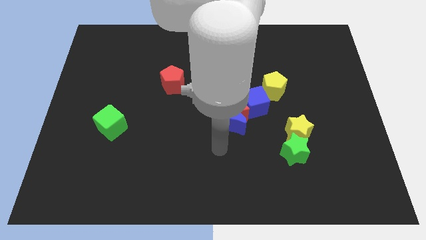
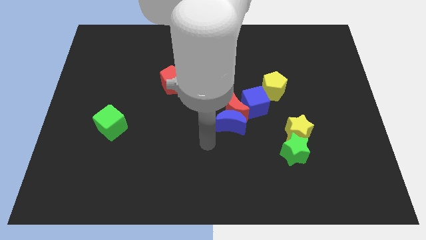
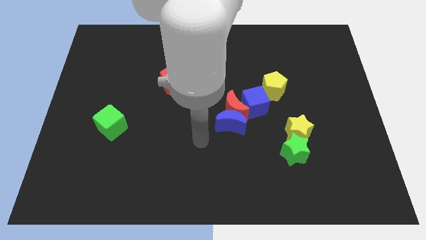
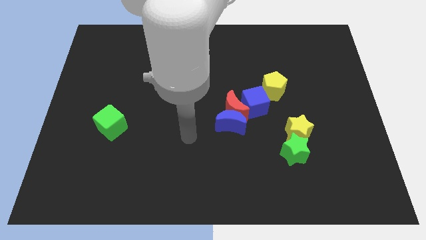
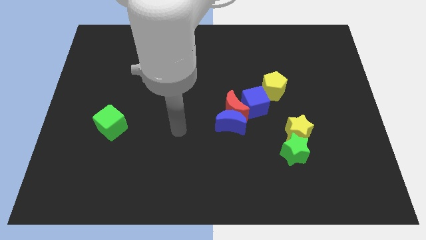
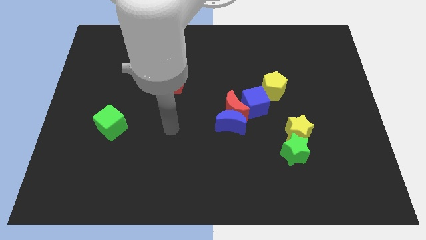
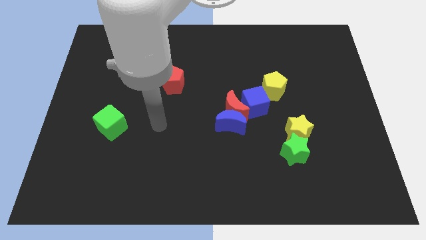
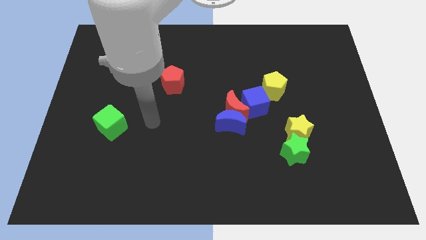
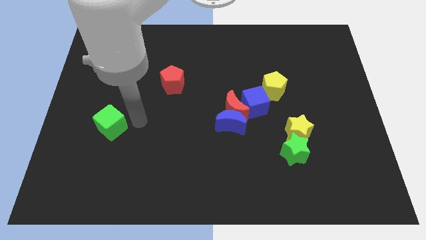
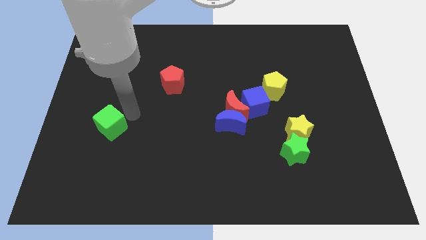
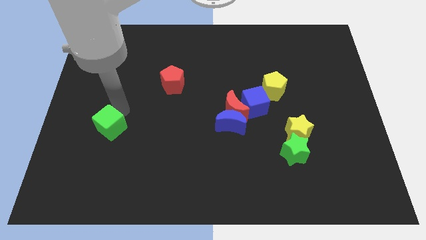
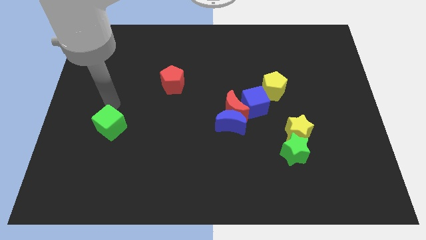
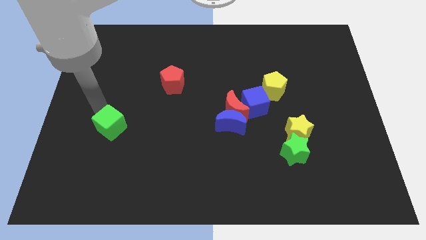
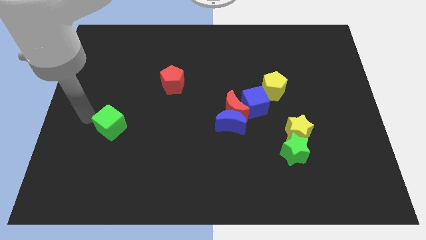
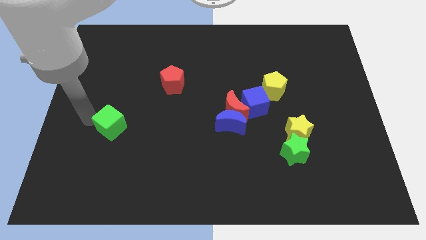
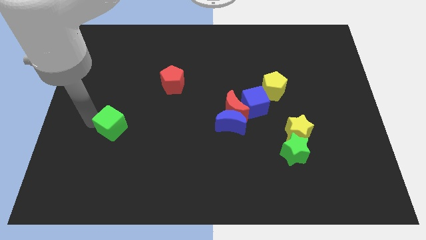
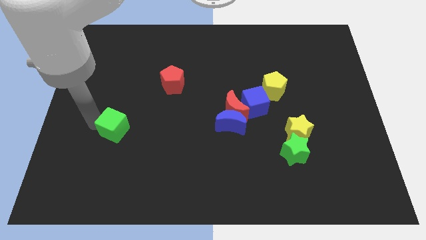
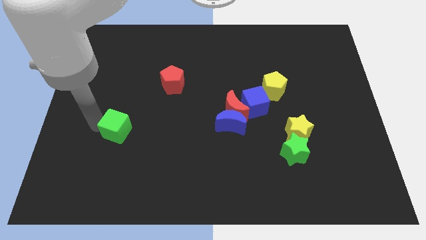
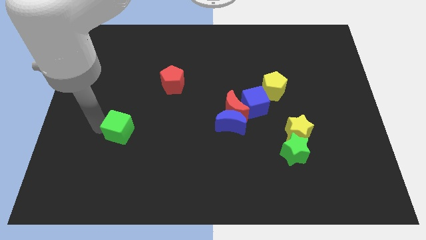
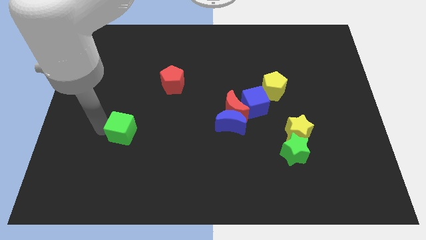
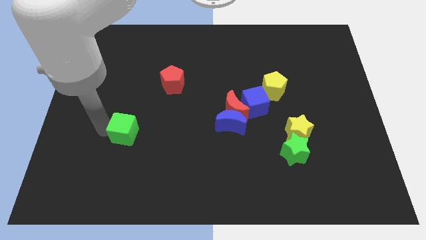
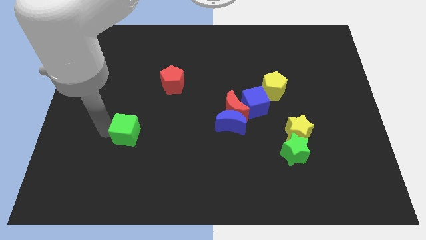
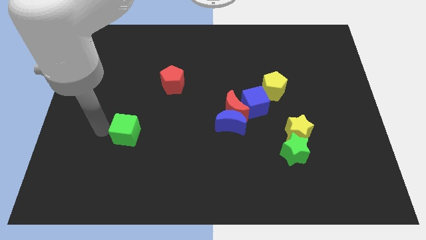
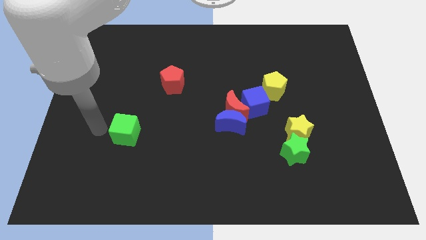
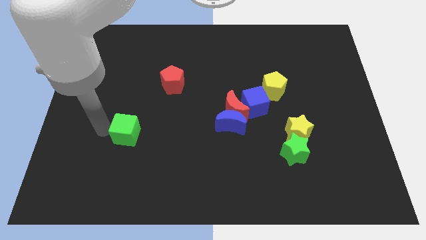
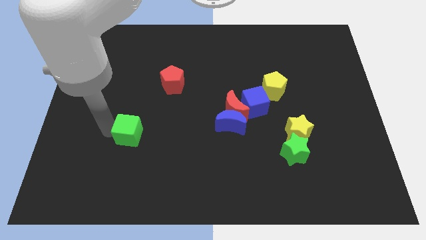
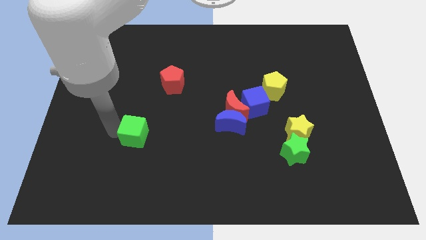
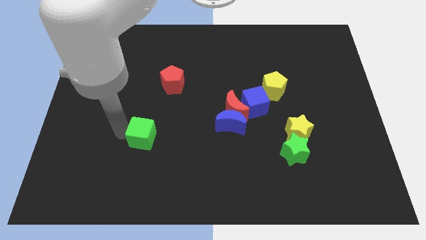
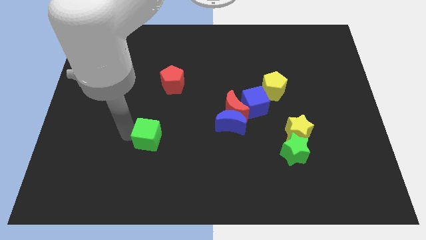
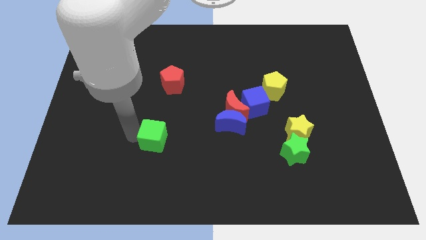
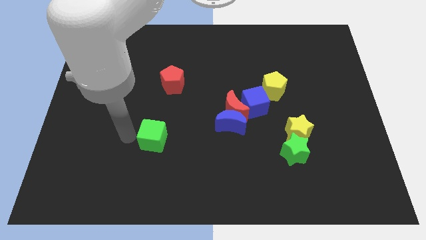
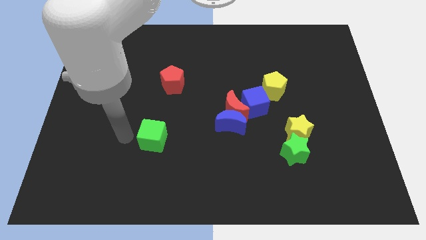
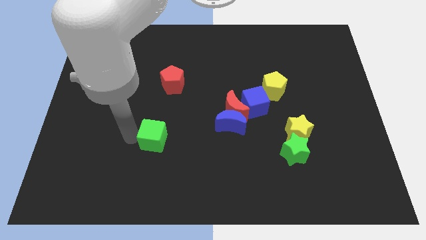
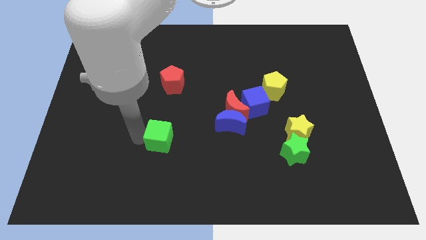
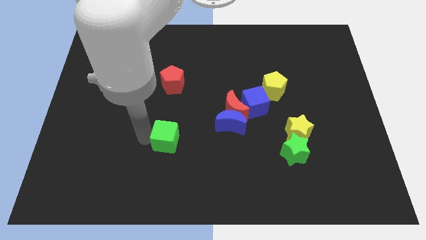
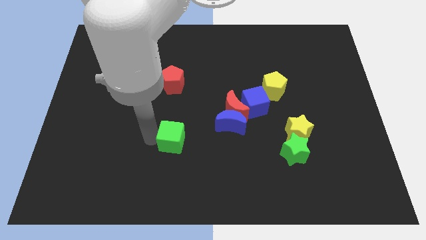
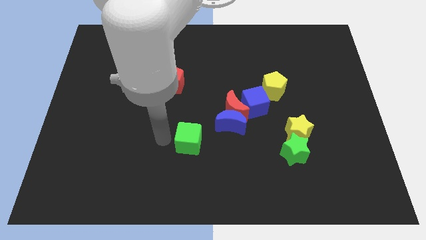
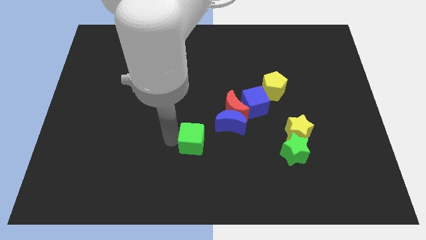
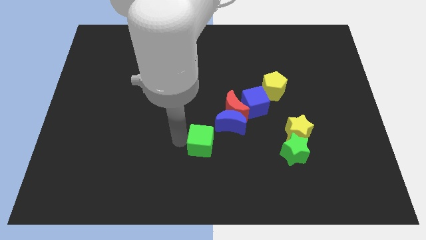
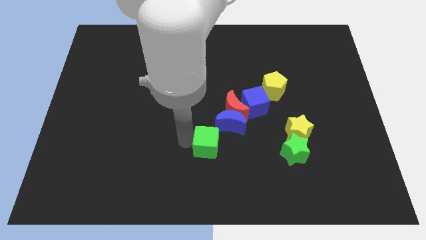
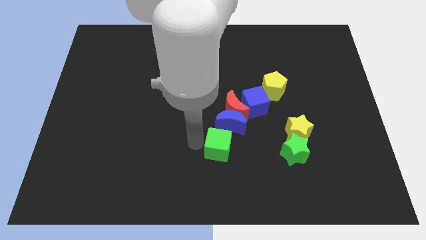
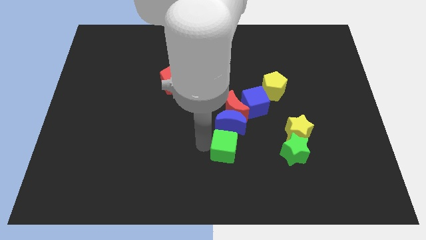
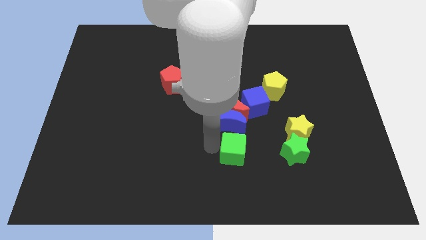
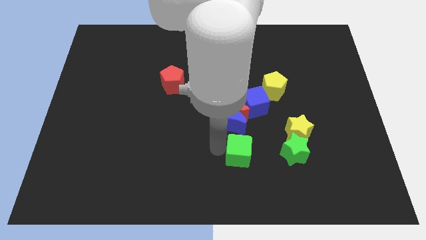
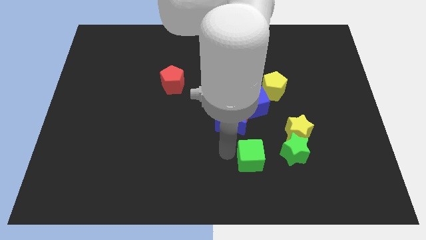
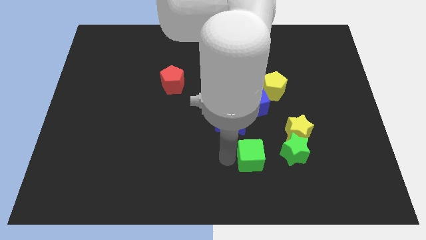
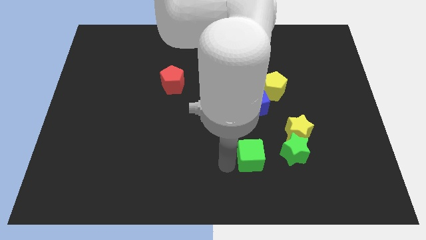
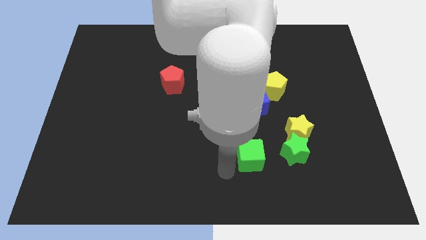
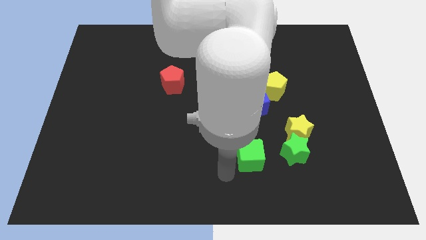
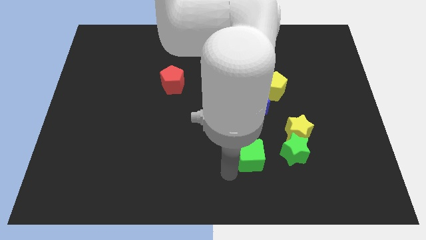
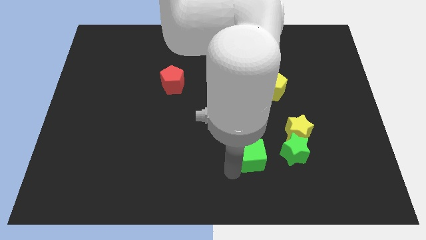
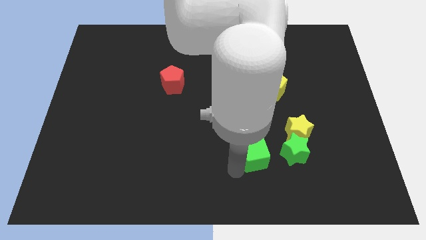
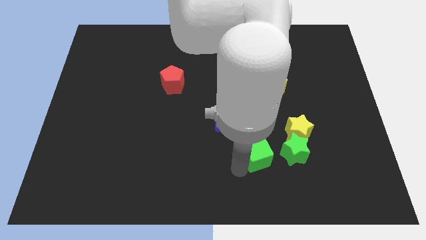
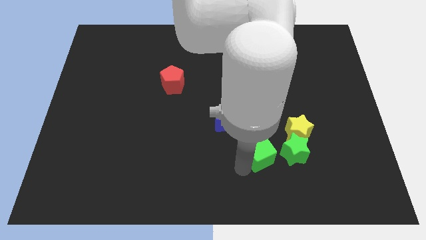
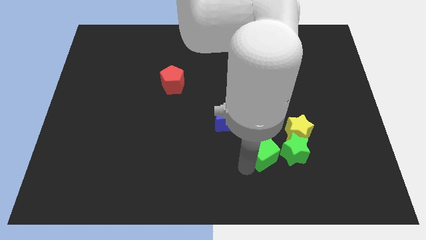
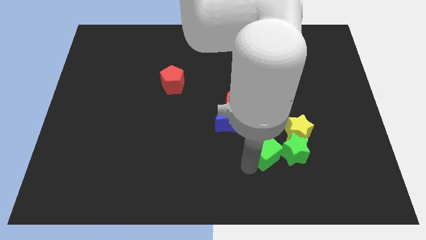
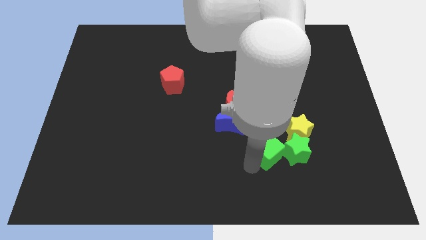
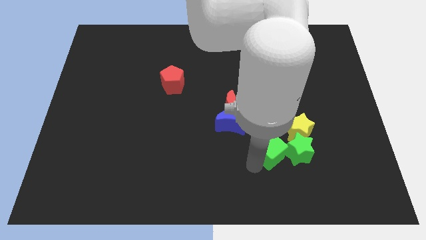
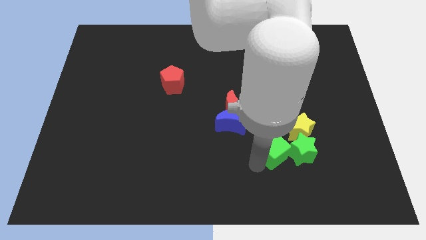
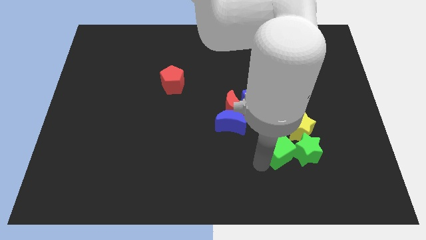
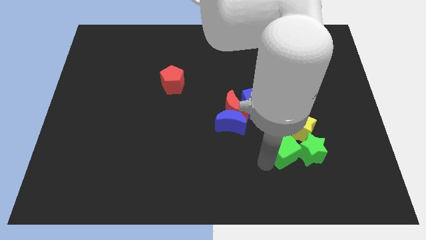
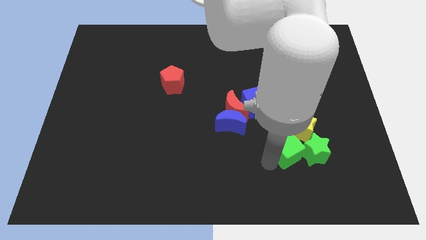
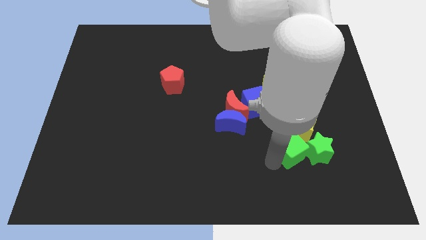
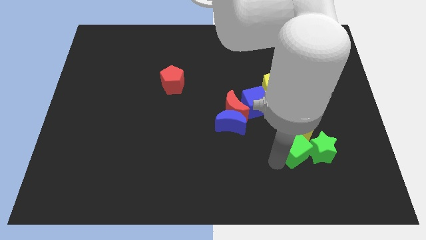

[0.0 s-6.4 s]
put the green cube close to the yellow star

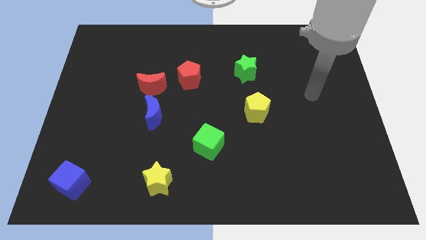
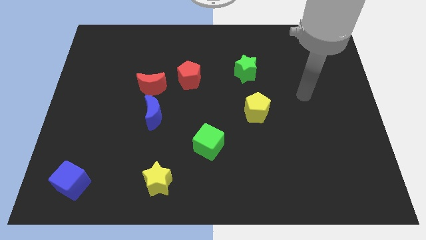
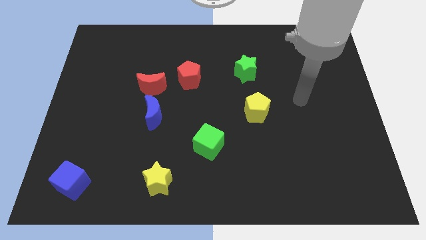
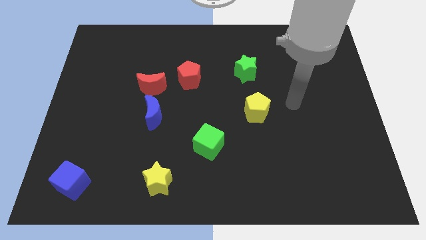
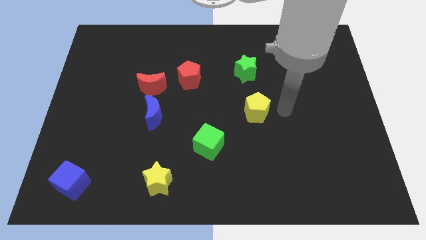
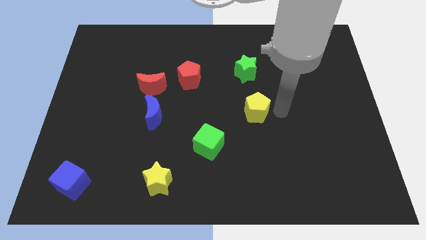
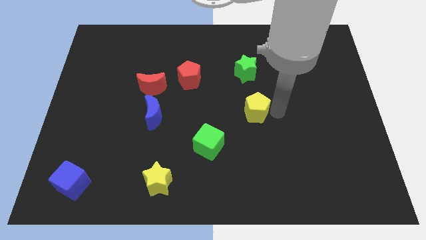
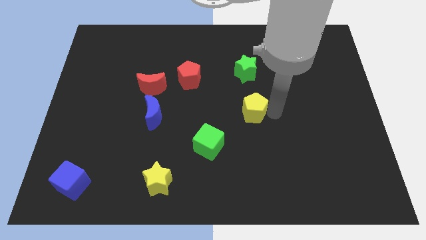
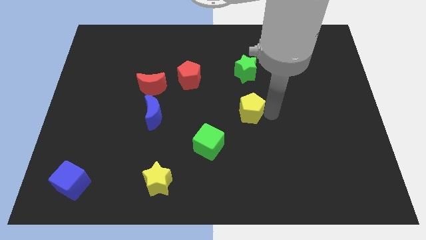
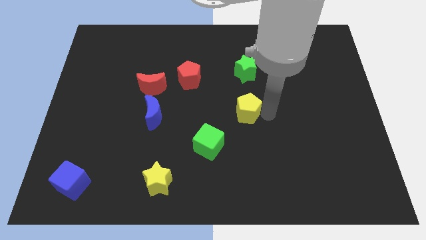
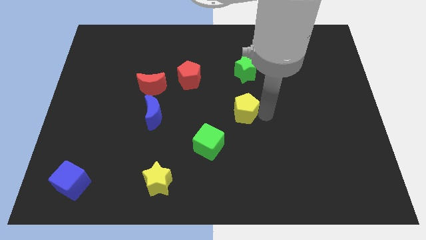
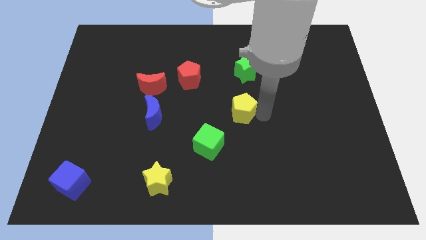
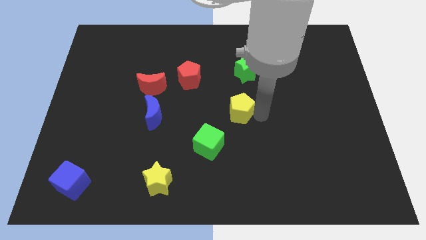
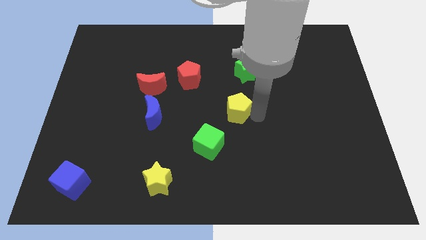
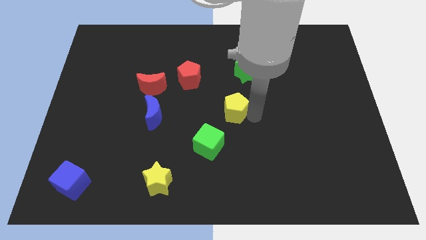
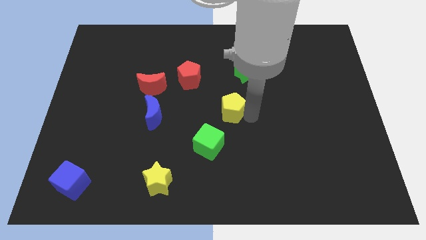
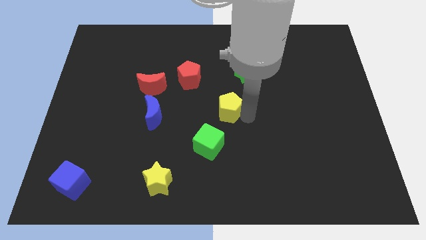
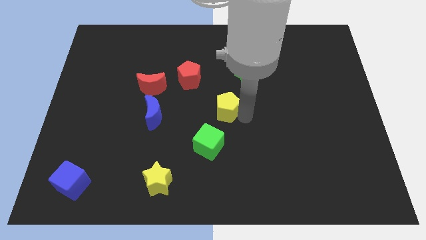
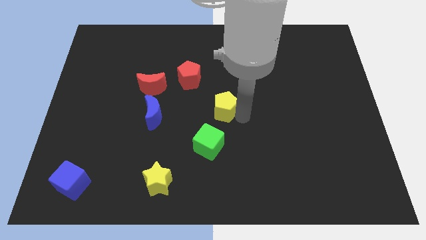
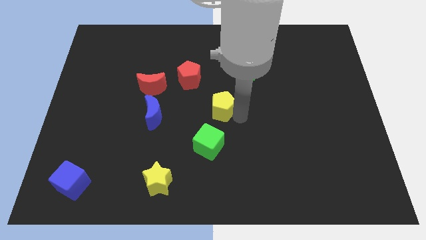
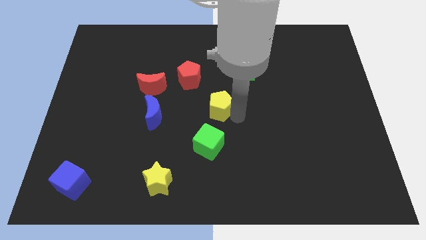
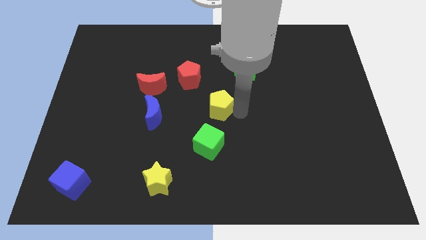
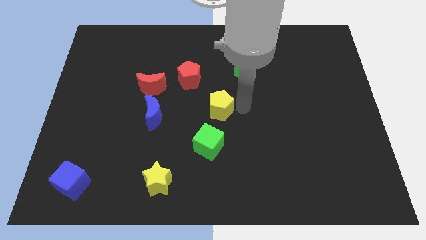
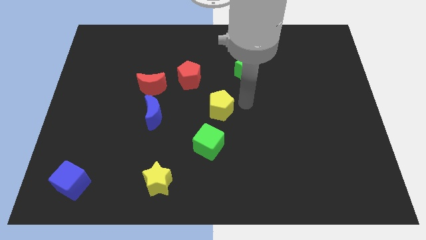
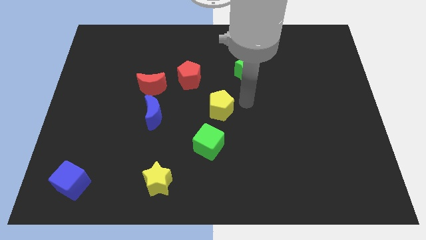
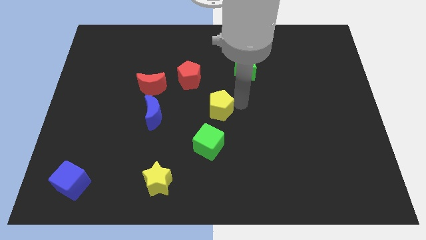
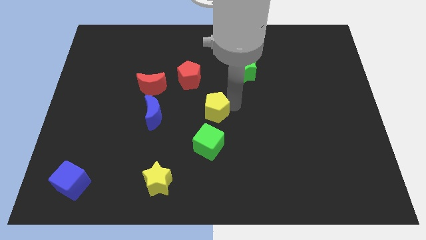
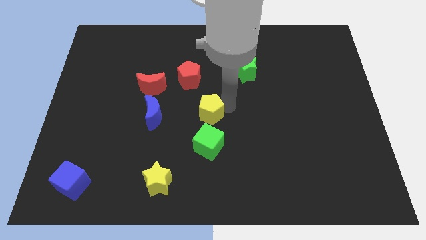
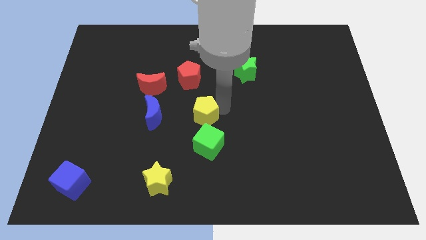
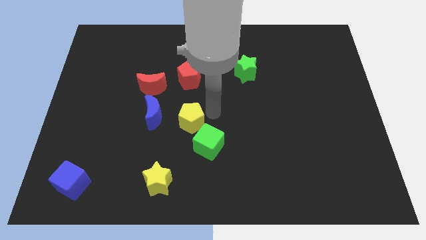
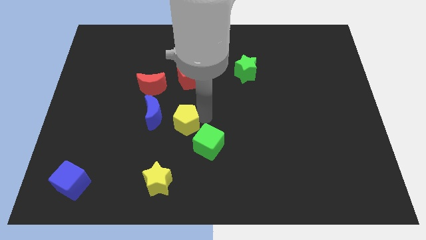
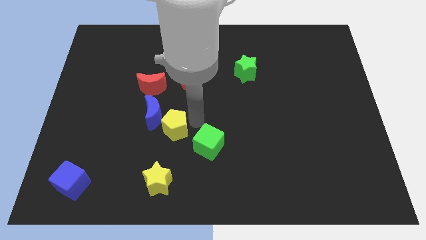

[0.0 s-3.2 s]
push the yellow pentagon next to the blue moon
